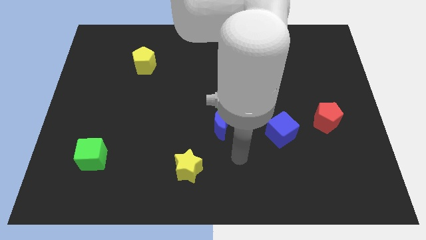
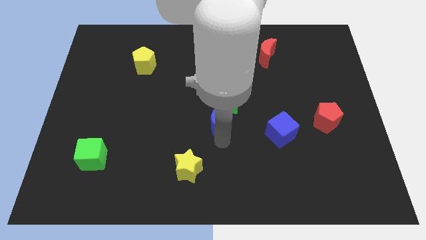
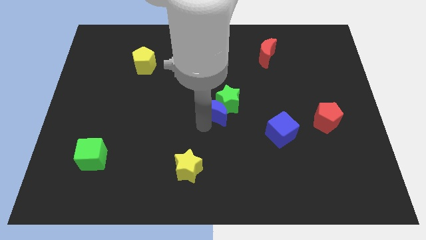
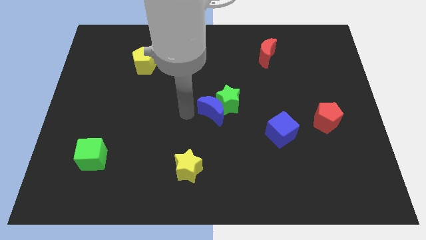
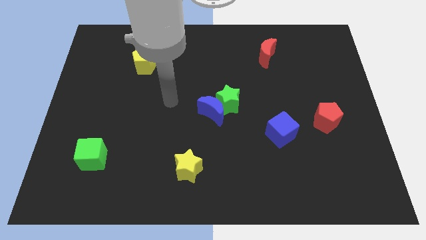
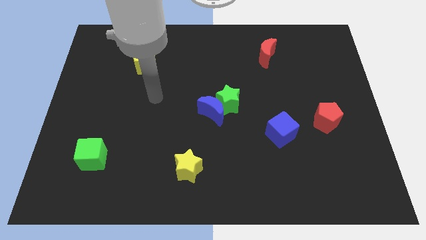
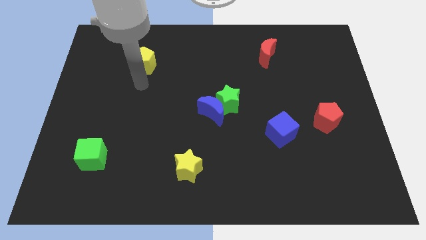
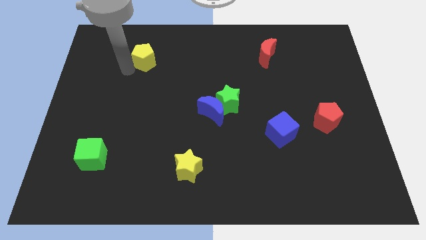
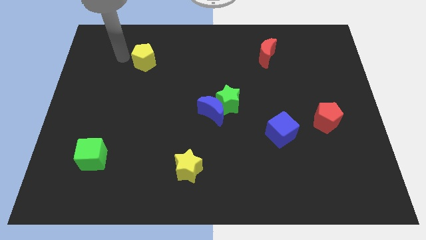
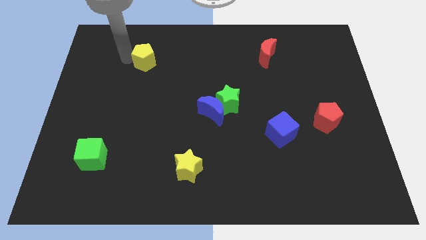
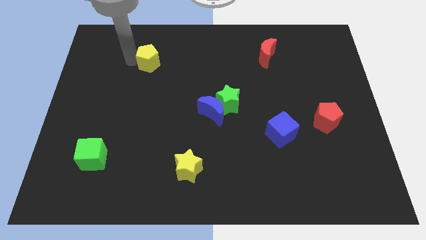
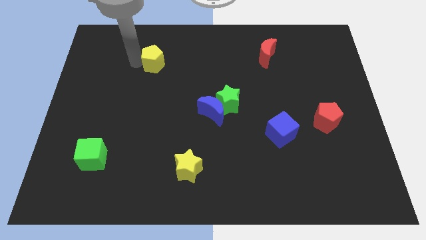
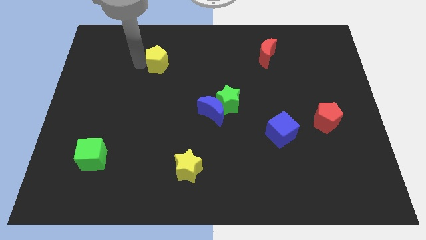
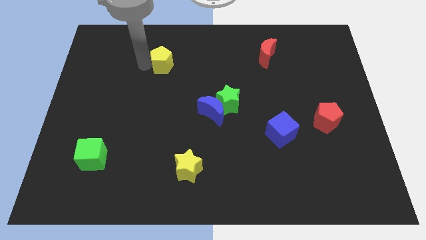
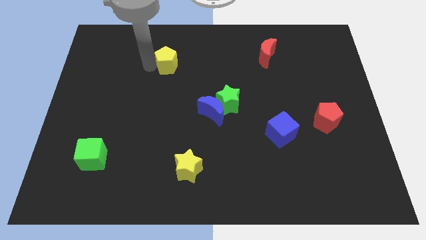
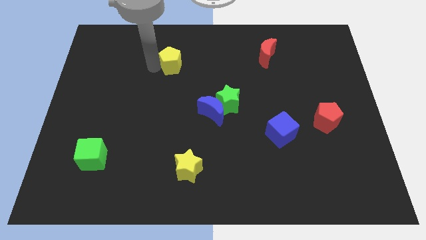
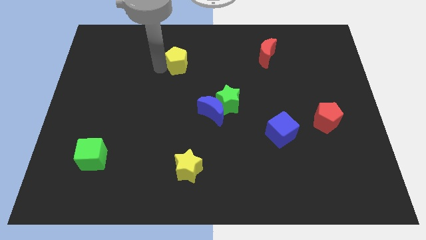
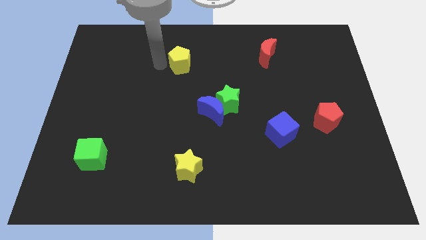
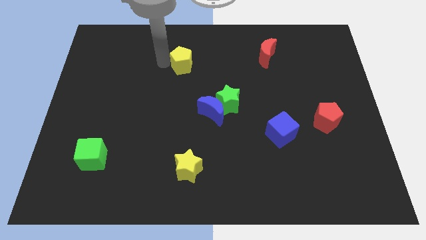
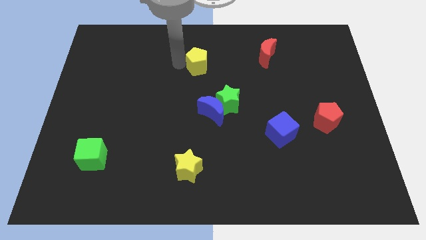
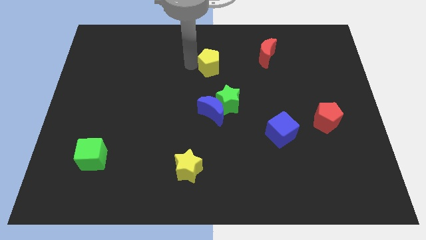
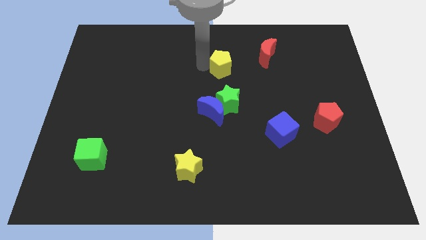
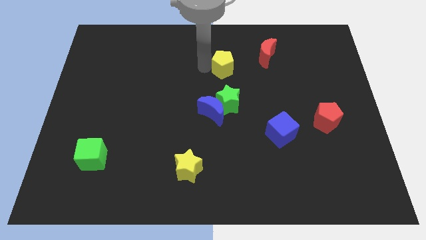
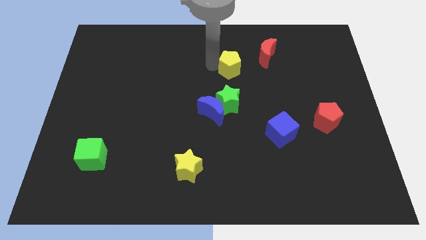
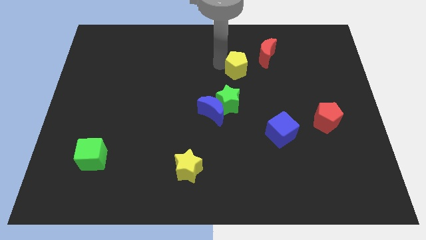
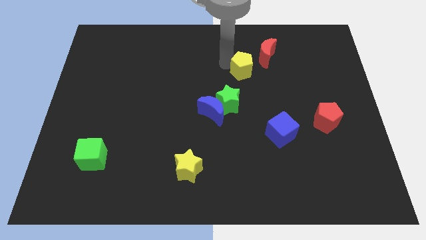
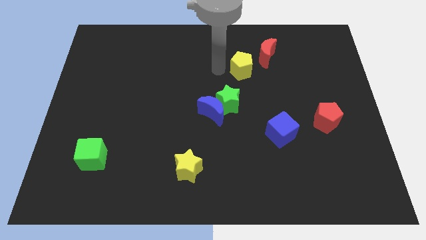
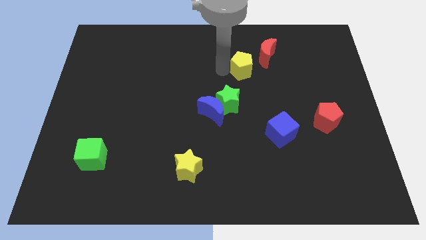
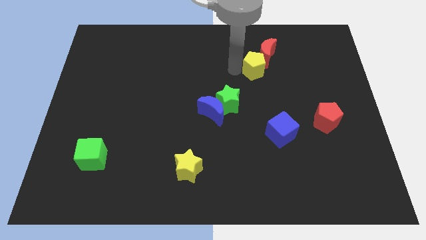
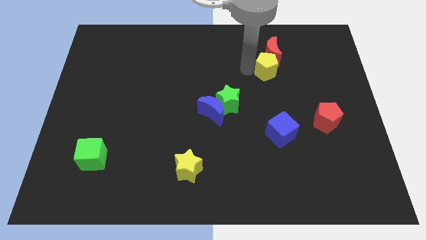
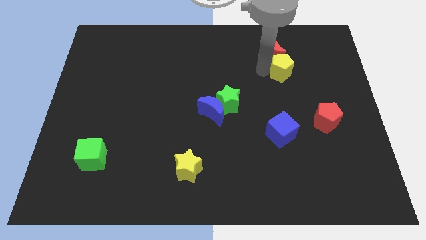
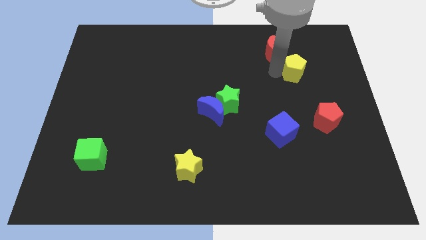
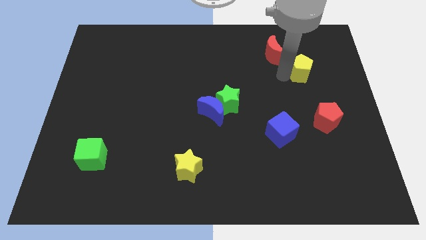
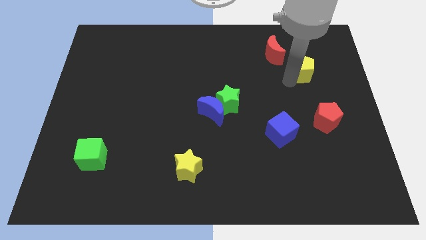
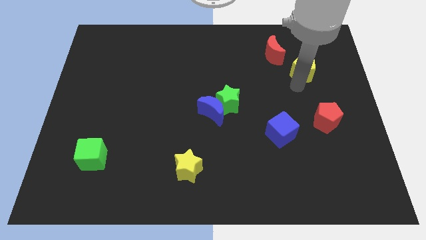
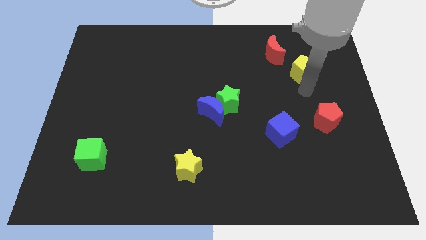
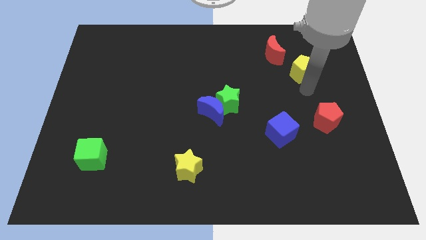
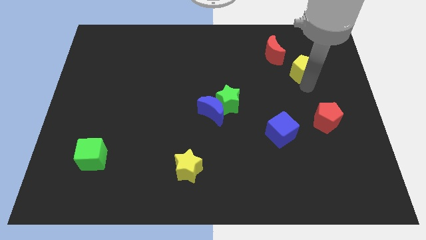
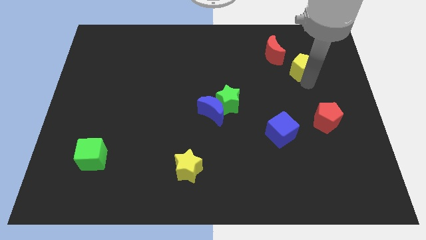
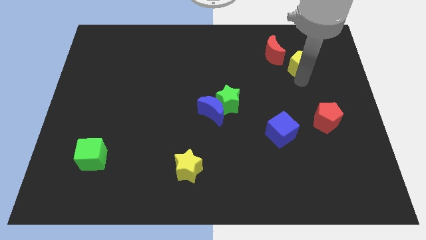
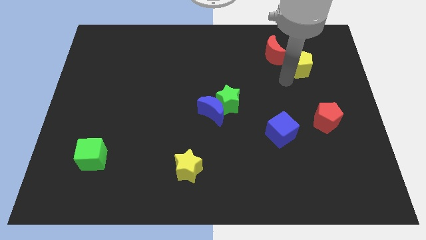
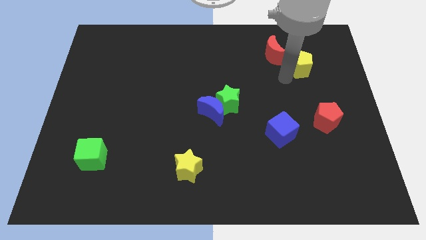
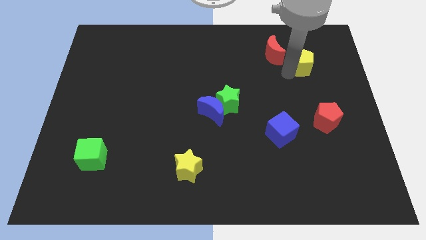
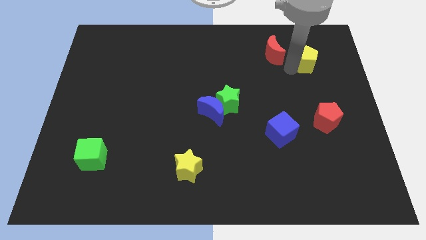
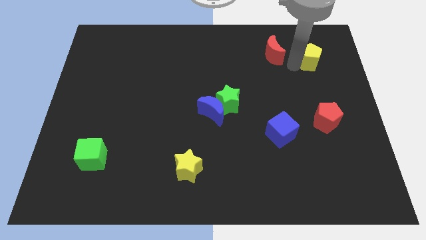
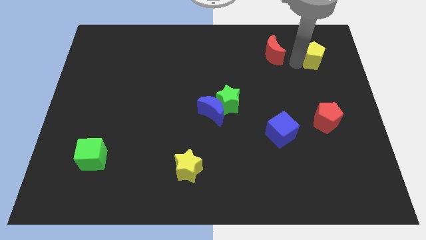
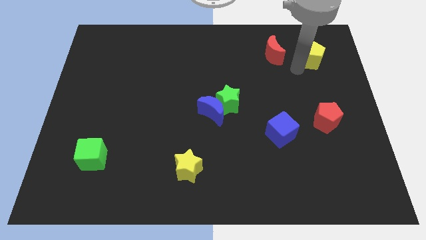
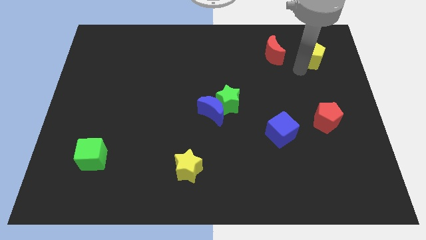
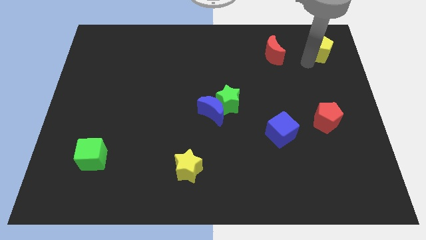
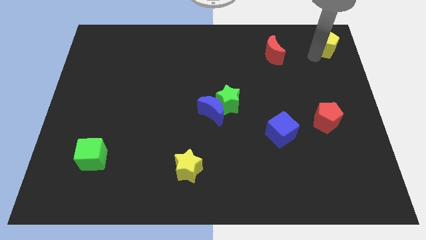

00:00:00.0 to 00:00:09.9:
put the yellow pentagon to the top right of the board

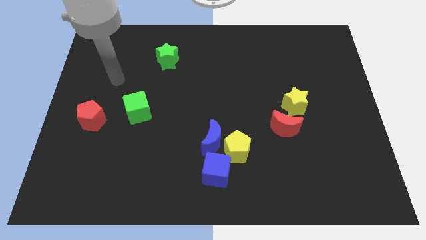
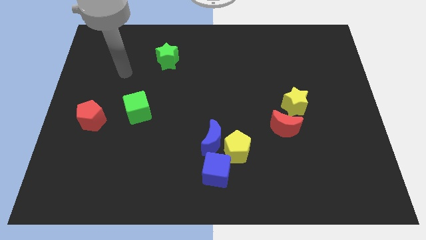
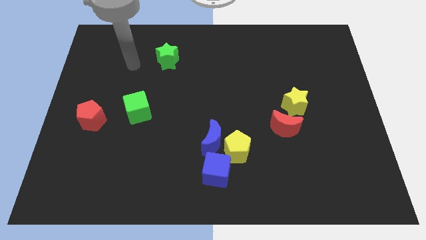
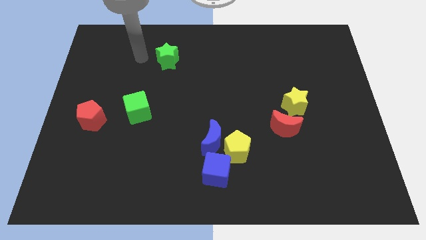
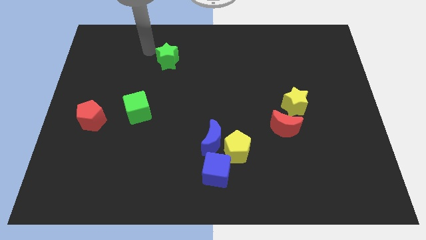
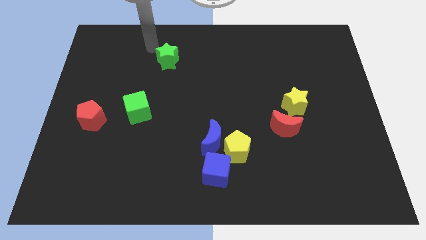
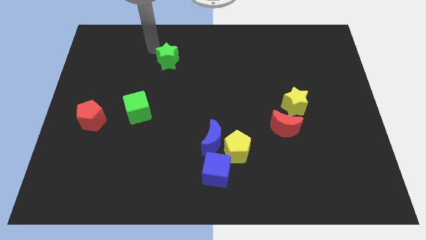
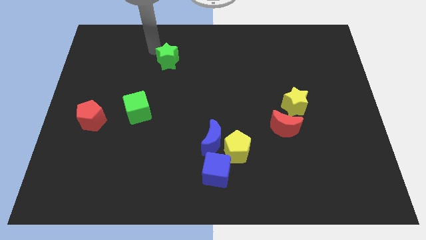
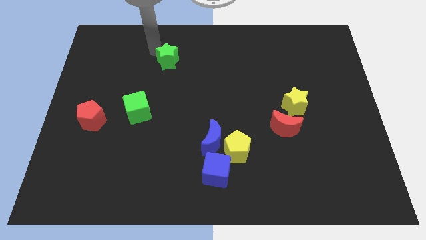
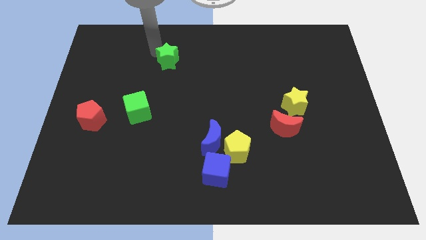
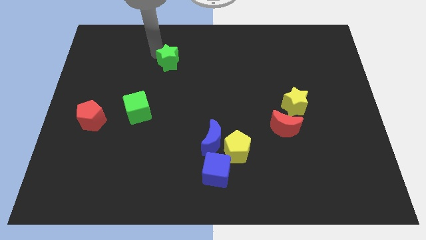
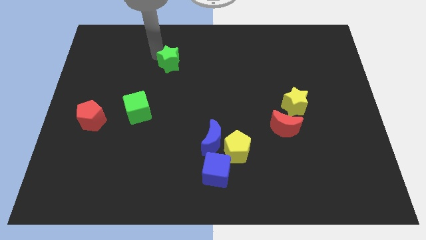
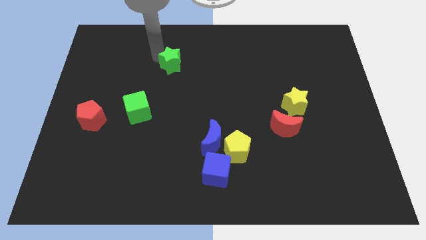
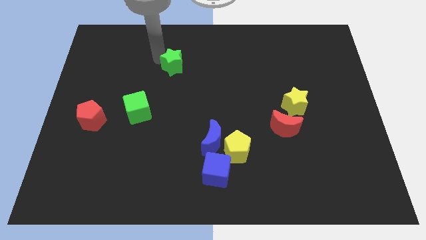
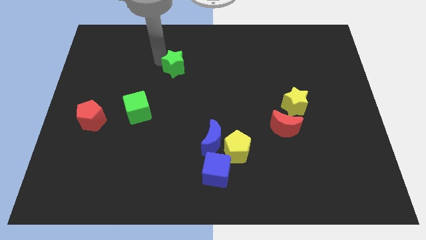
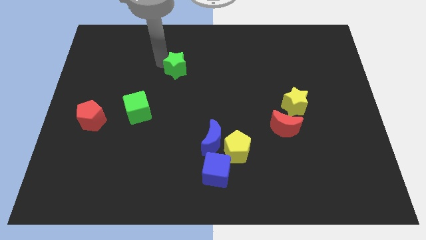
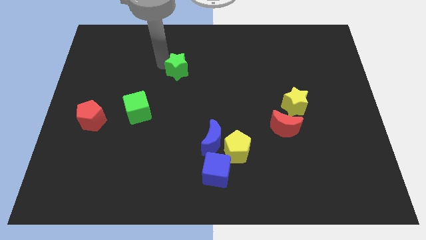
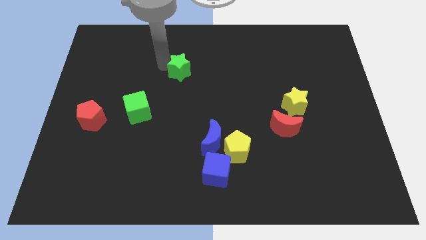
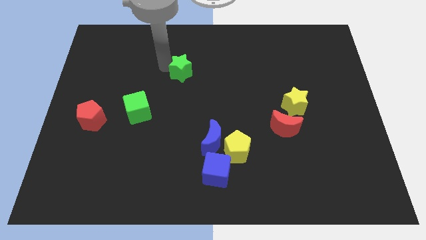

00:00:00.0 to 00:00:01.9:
push the green star to the center of the board
